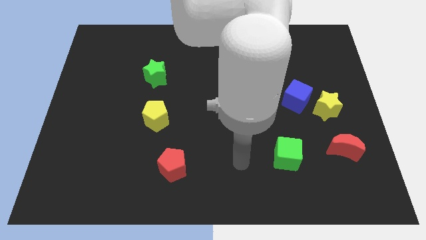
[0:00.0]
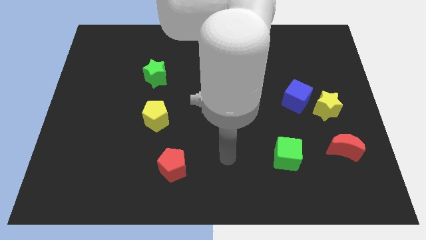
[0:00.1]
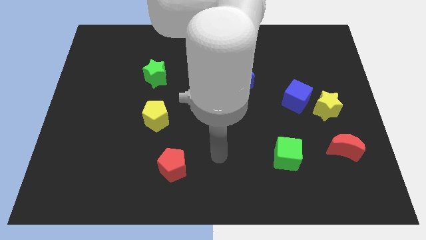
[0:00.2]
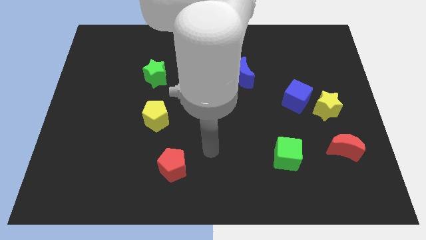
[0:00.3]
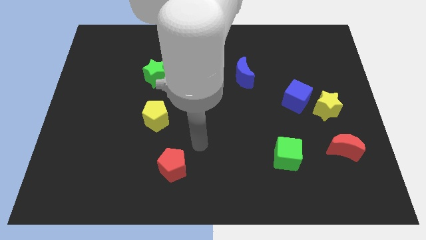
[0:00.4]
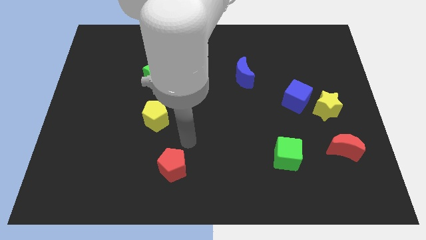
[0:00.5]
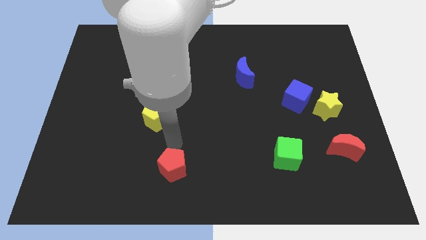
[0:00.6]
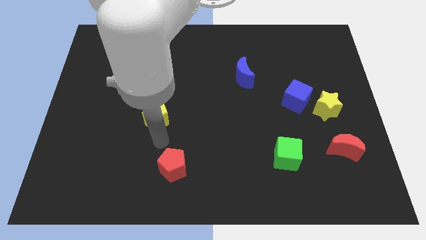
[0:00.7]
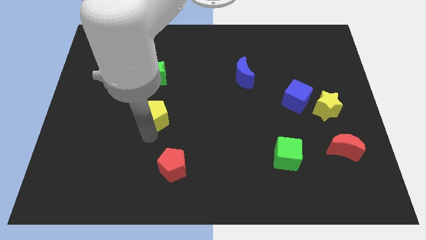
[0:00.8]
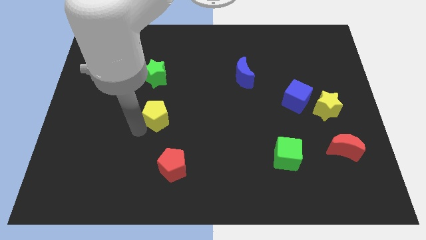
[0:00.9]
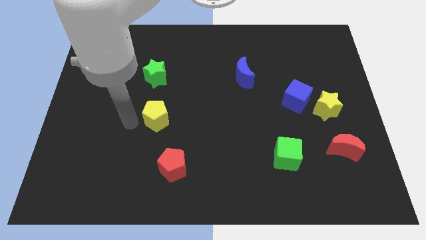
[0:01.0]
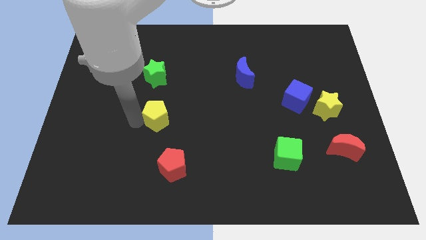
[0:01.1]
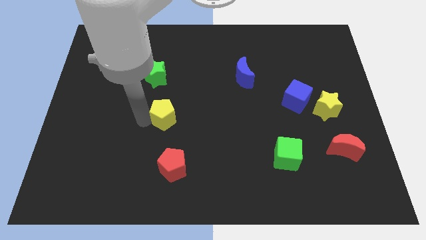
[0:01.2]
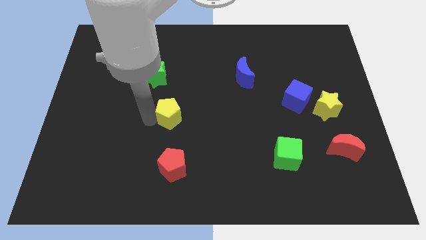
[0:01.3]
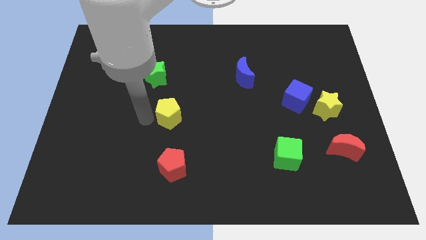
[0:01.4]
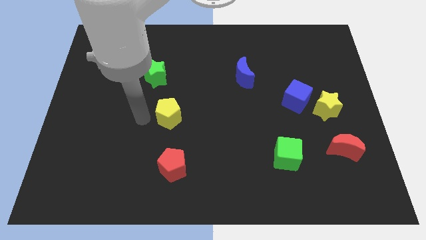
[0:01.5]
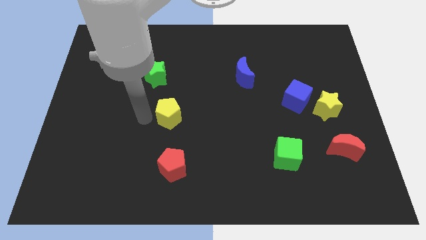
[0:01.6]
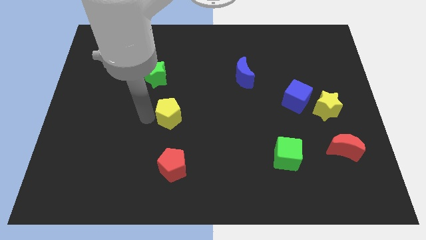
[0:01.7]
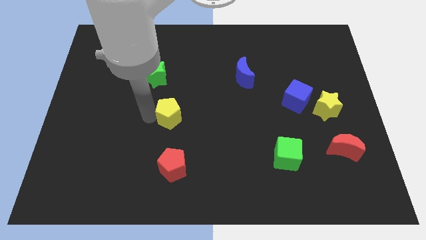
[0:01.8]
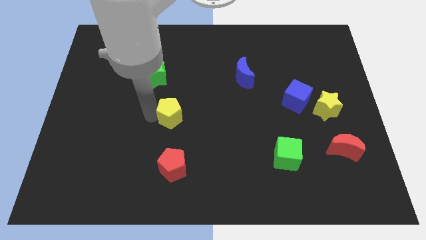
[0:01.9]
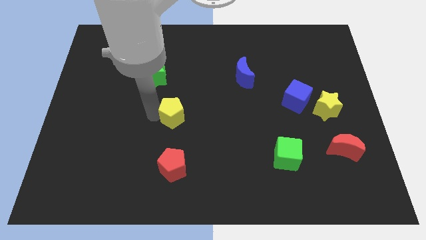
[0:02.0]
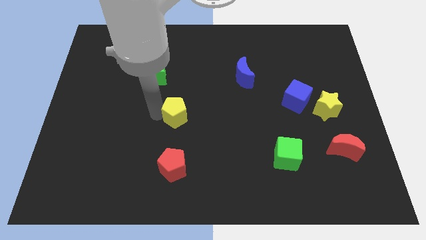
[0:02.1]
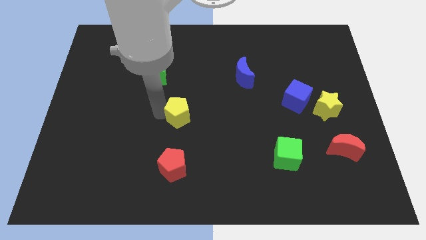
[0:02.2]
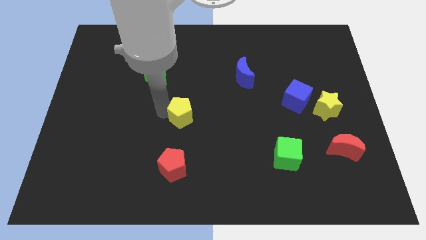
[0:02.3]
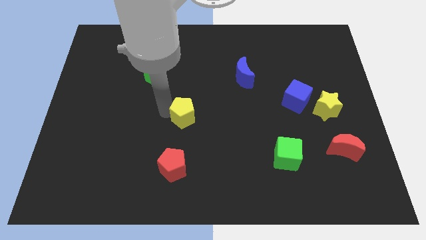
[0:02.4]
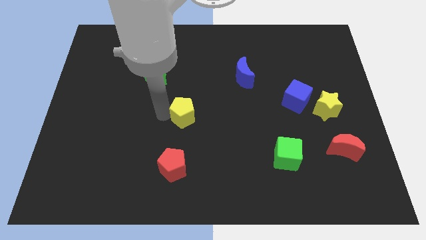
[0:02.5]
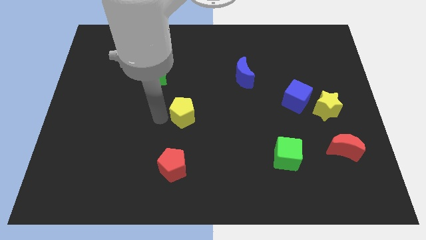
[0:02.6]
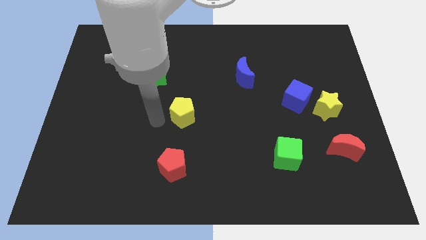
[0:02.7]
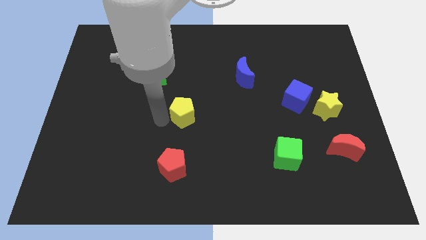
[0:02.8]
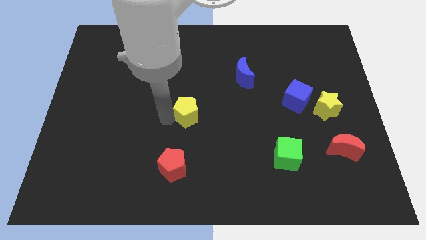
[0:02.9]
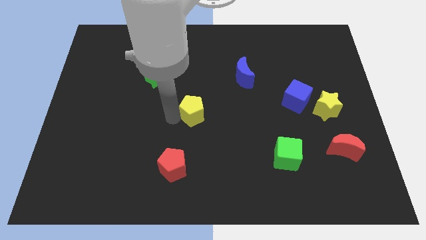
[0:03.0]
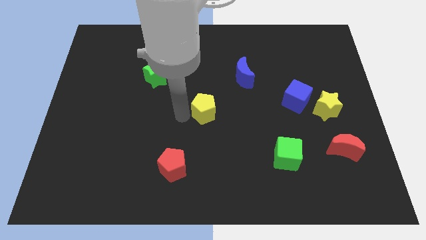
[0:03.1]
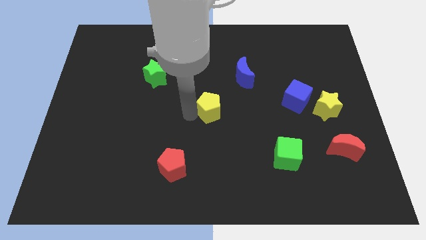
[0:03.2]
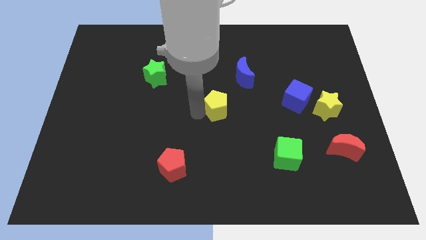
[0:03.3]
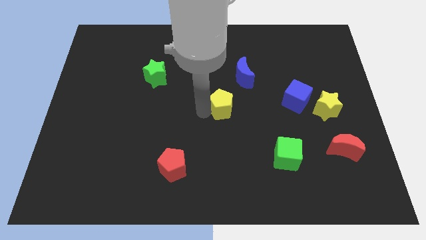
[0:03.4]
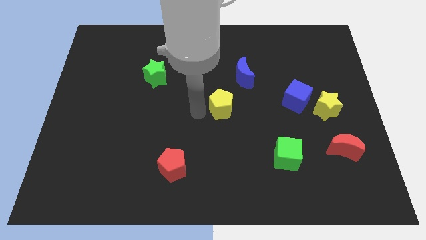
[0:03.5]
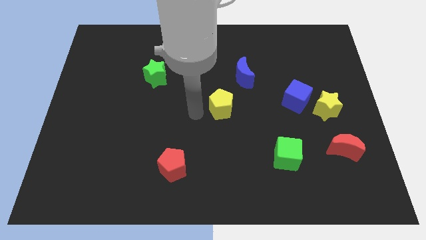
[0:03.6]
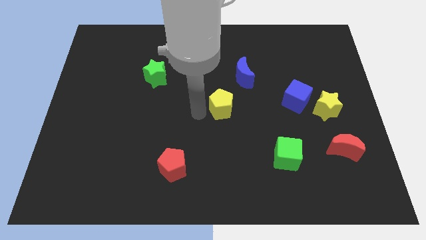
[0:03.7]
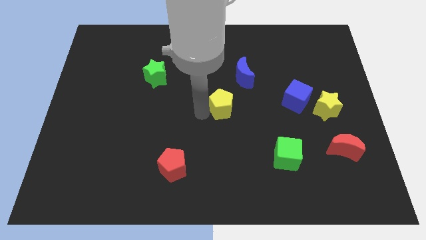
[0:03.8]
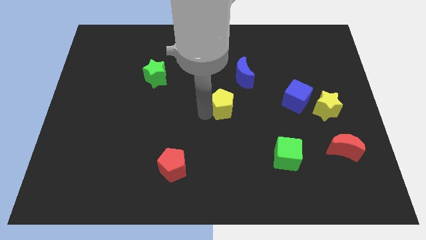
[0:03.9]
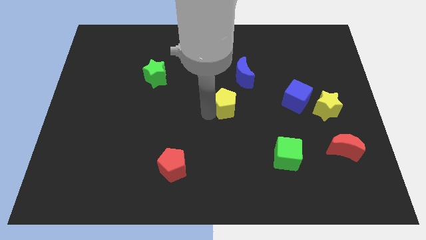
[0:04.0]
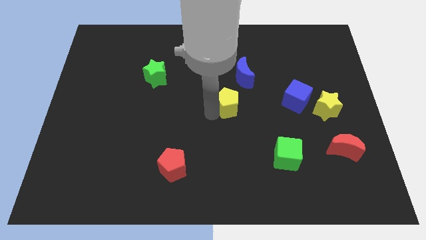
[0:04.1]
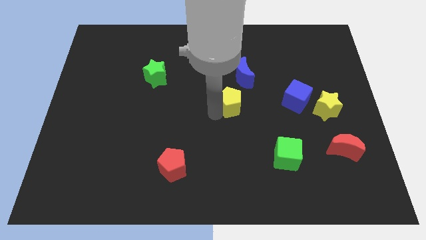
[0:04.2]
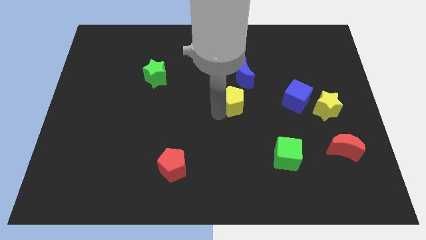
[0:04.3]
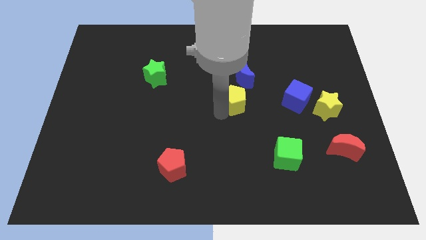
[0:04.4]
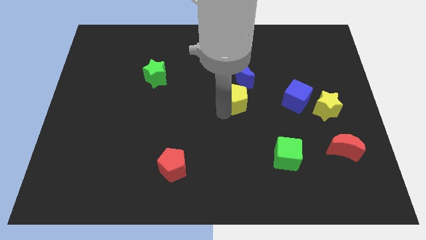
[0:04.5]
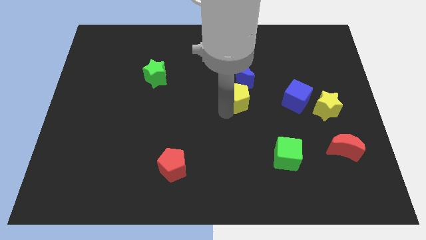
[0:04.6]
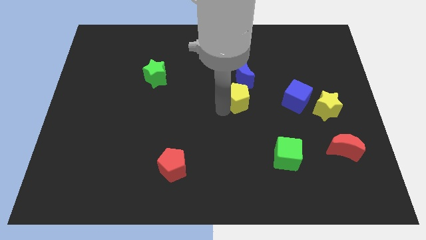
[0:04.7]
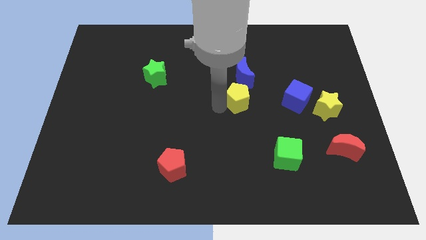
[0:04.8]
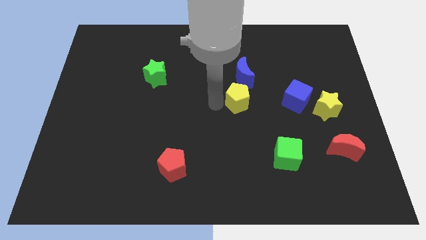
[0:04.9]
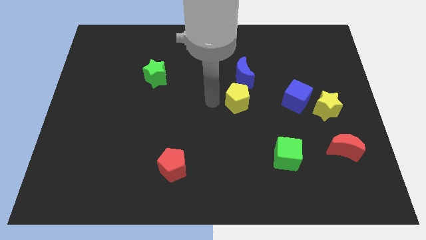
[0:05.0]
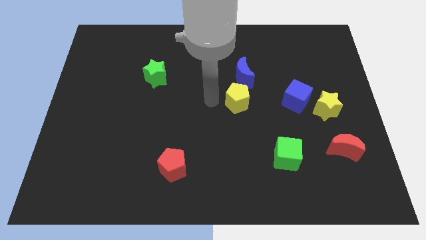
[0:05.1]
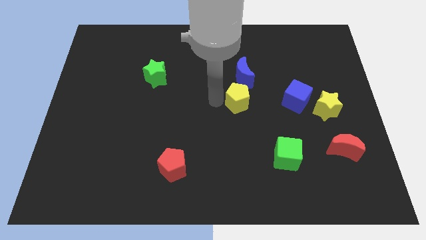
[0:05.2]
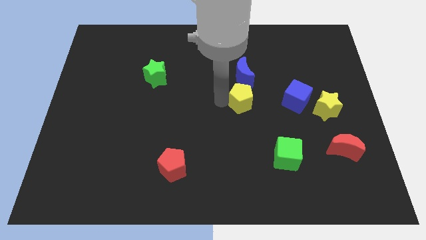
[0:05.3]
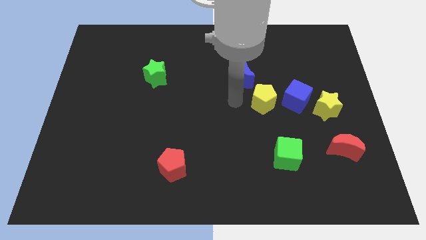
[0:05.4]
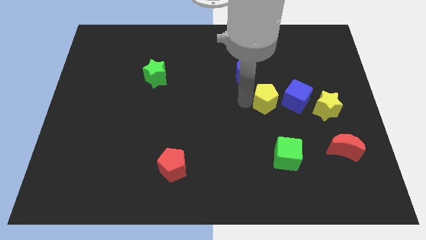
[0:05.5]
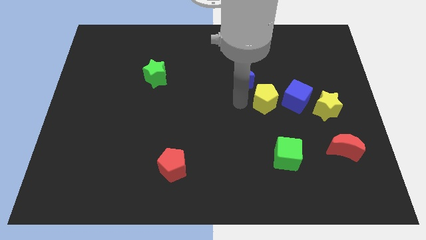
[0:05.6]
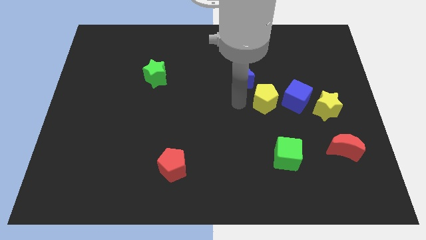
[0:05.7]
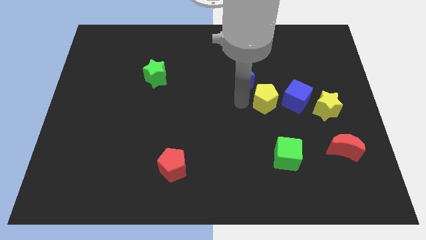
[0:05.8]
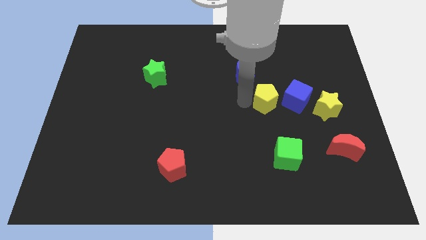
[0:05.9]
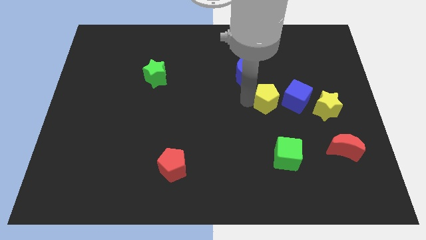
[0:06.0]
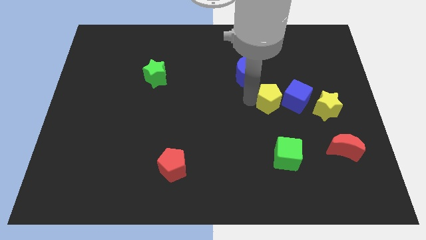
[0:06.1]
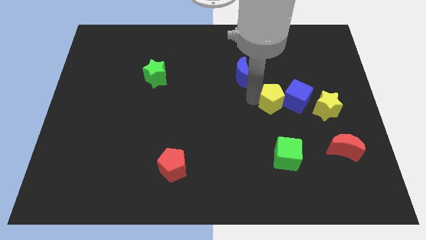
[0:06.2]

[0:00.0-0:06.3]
move the yellow pentagon next to the blue cube

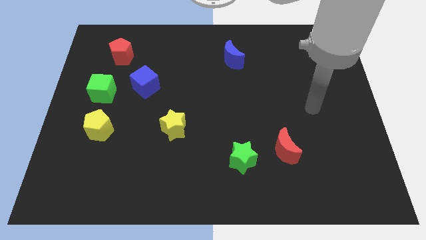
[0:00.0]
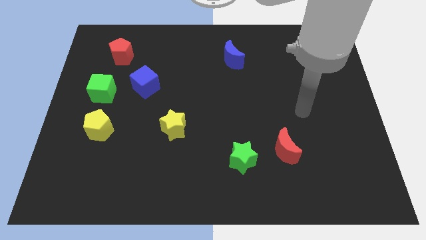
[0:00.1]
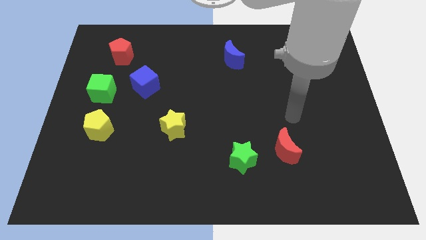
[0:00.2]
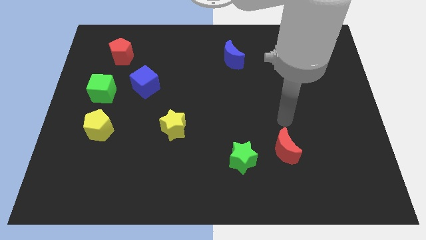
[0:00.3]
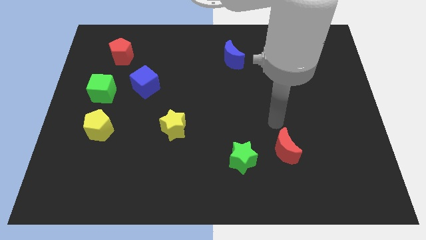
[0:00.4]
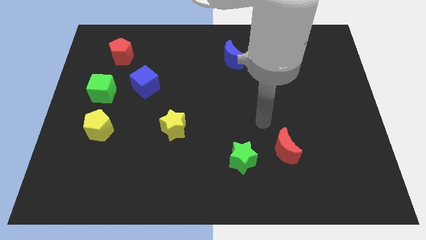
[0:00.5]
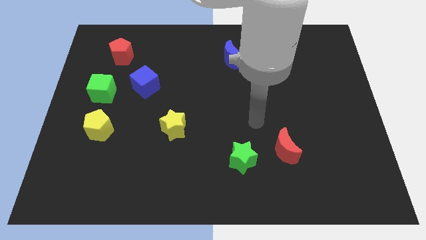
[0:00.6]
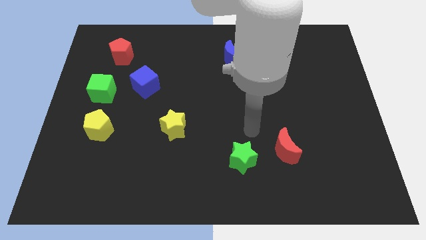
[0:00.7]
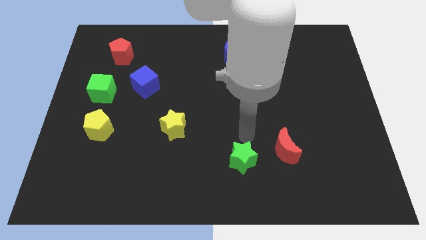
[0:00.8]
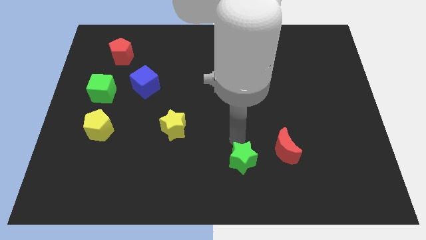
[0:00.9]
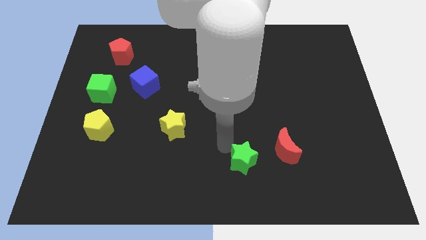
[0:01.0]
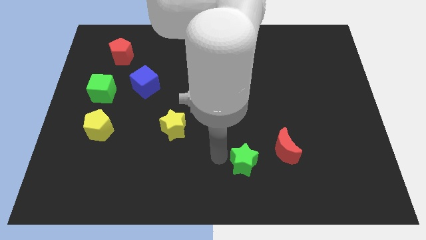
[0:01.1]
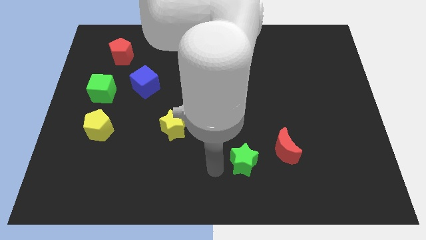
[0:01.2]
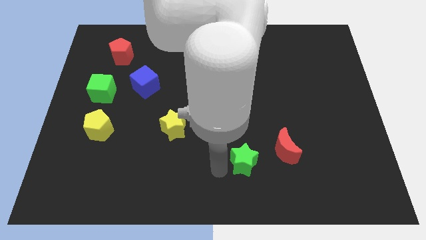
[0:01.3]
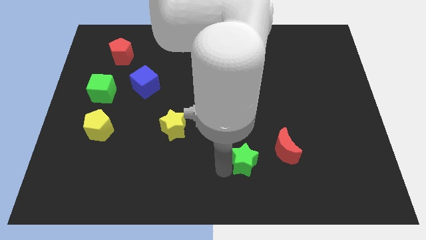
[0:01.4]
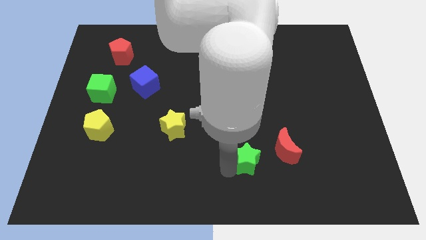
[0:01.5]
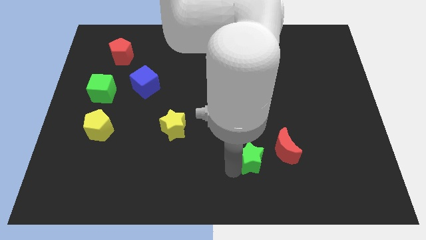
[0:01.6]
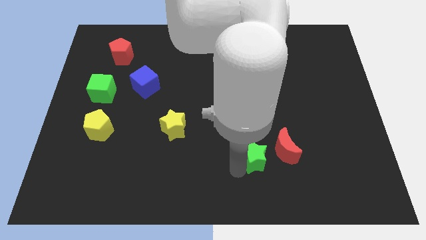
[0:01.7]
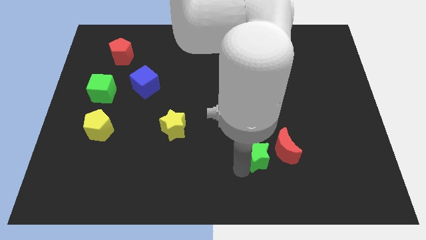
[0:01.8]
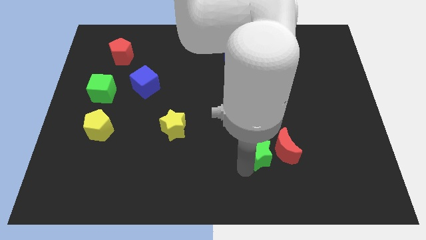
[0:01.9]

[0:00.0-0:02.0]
put the green star to the red moon
